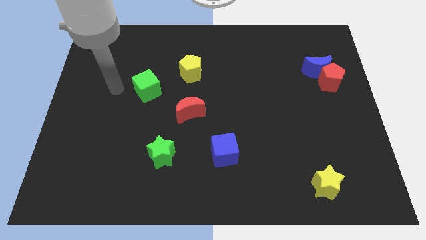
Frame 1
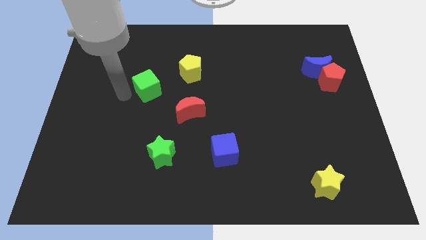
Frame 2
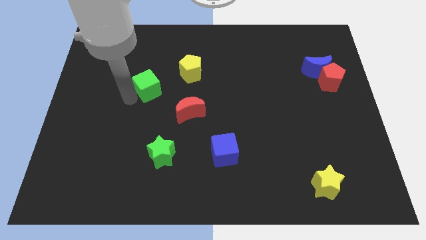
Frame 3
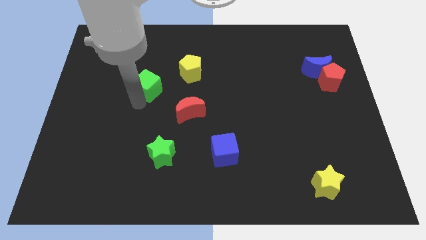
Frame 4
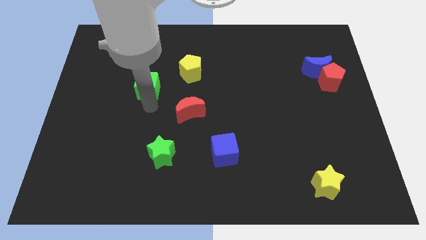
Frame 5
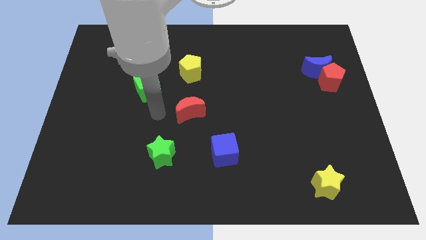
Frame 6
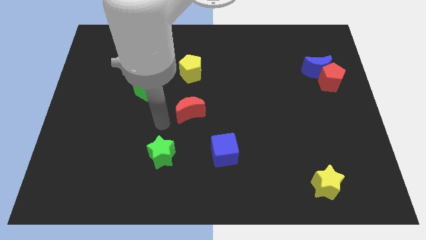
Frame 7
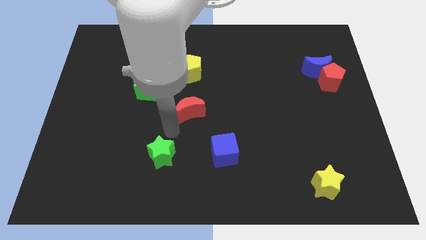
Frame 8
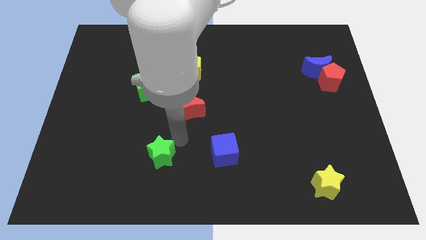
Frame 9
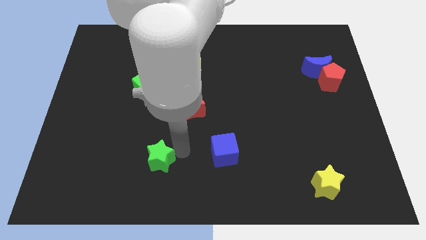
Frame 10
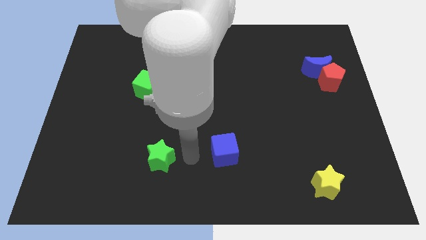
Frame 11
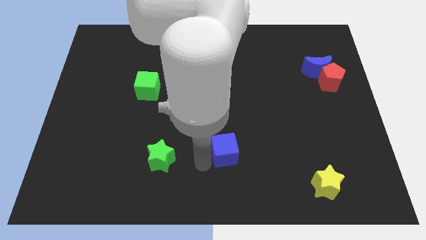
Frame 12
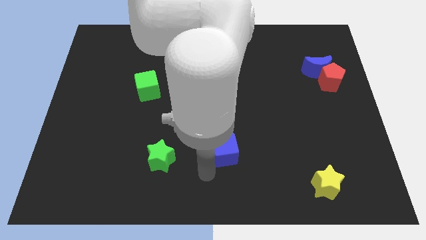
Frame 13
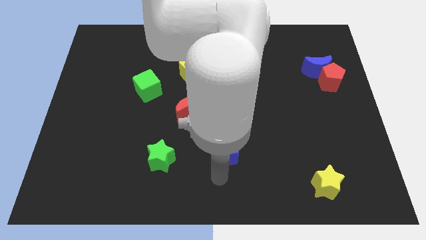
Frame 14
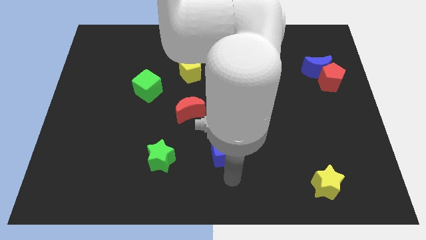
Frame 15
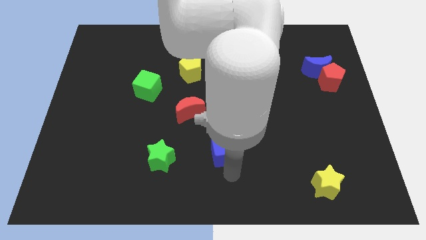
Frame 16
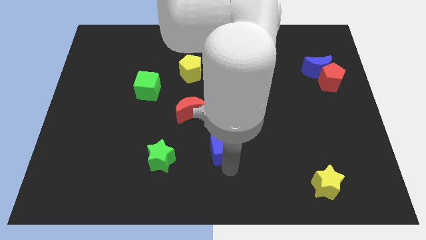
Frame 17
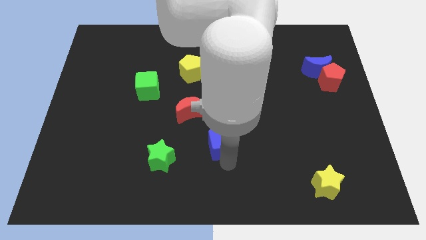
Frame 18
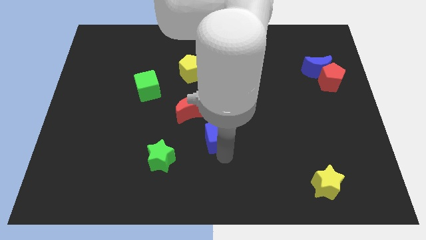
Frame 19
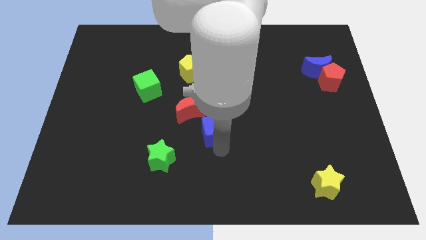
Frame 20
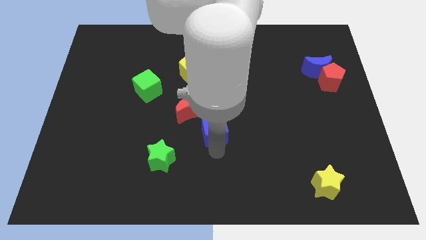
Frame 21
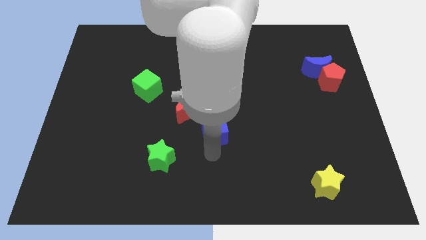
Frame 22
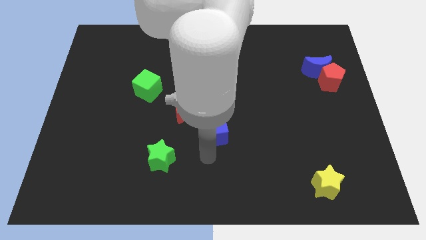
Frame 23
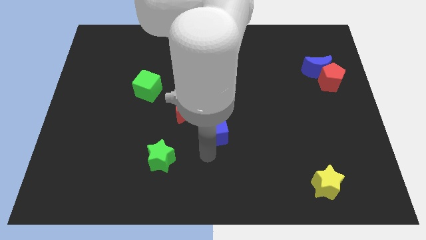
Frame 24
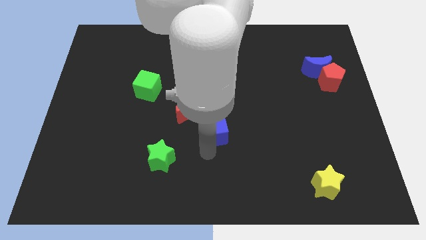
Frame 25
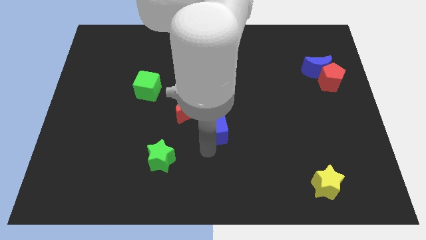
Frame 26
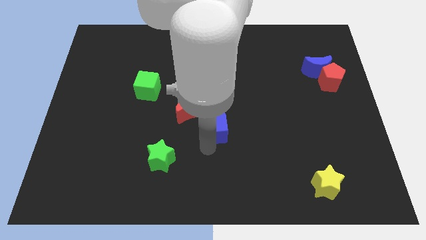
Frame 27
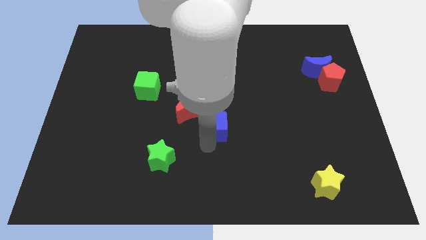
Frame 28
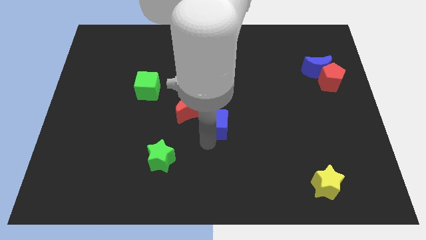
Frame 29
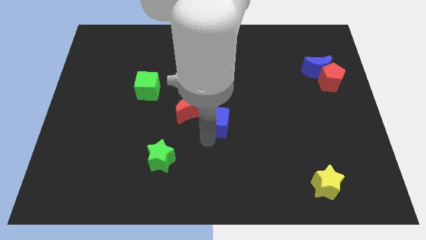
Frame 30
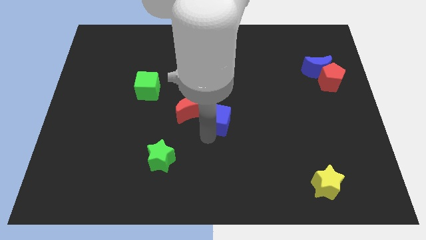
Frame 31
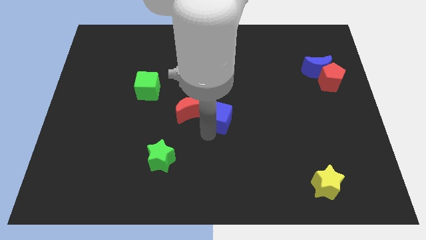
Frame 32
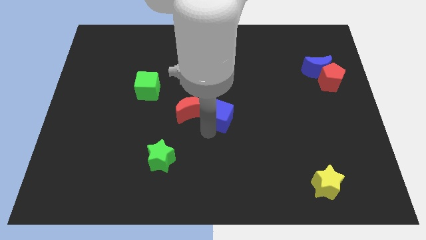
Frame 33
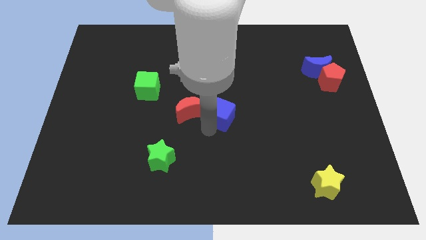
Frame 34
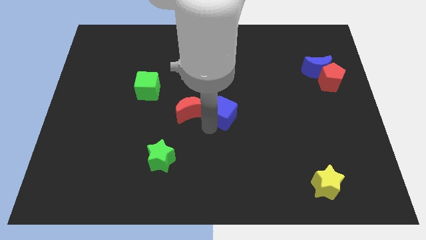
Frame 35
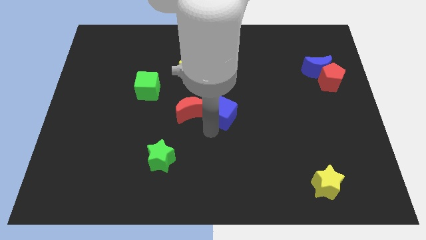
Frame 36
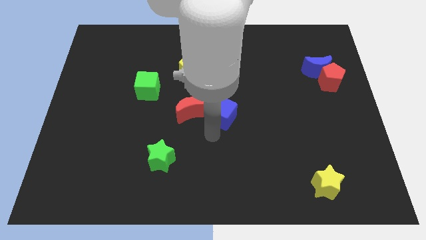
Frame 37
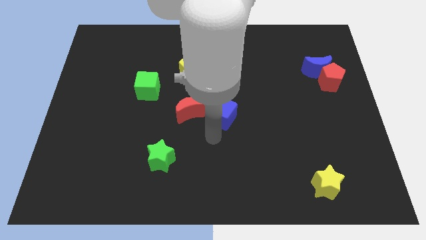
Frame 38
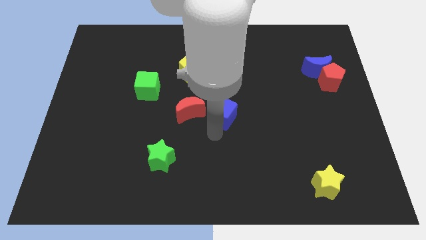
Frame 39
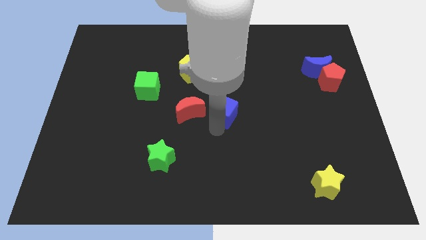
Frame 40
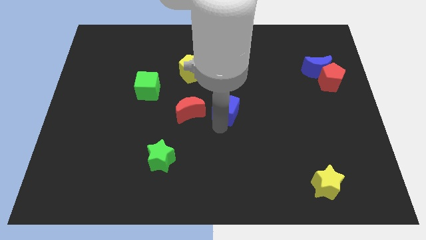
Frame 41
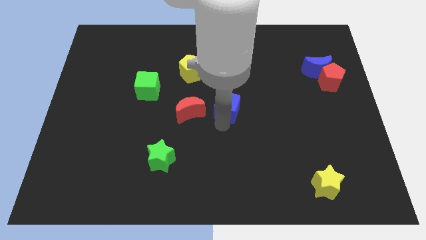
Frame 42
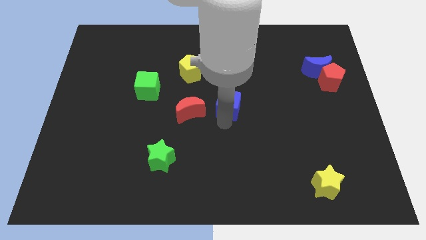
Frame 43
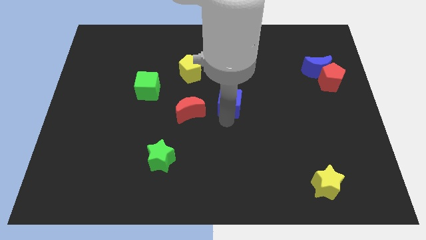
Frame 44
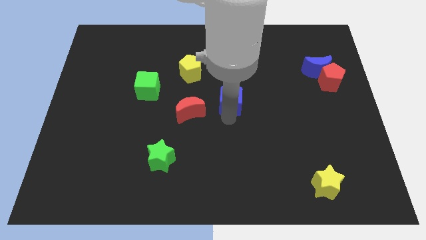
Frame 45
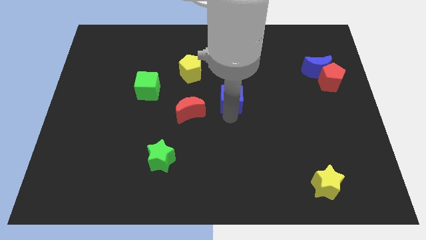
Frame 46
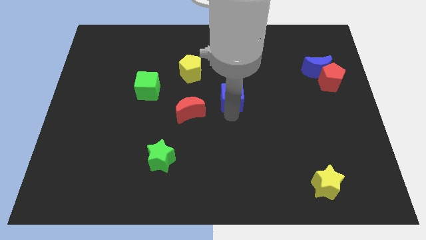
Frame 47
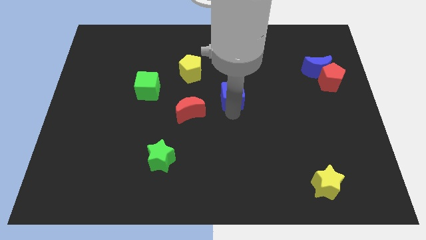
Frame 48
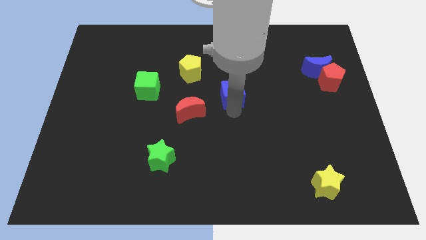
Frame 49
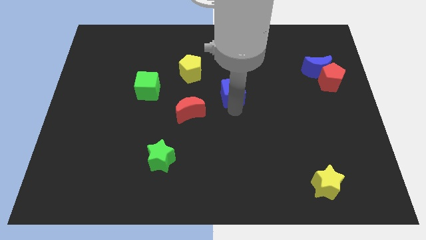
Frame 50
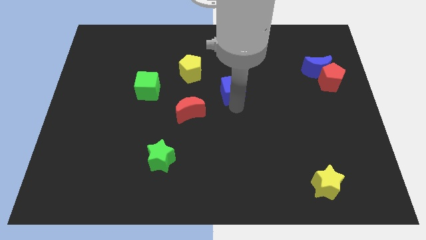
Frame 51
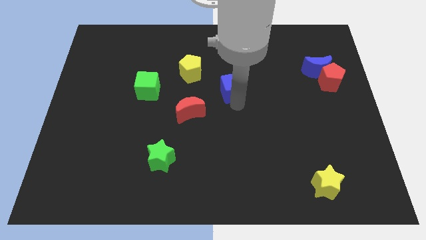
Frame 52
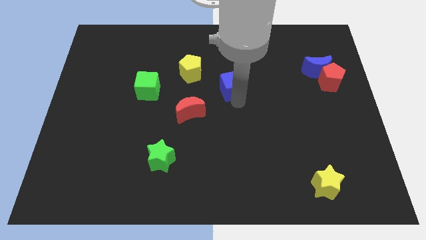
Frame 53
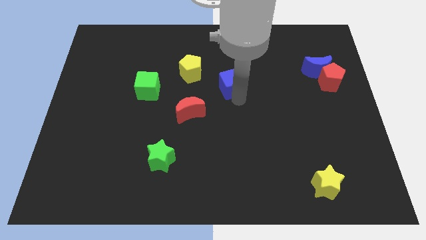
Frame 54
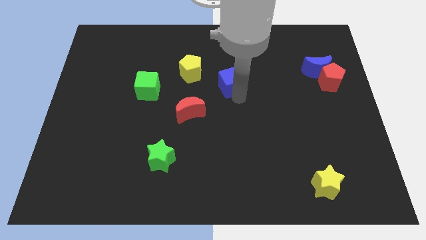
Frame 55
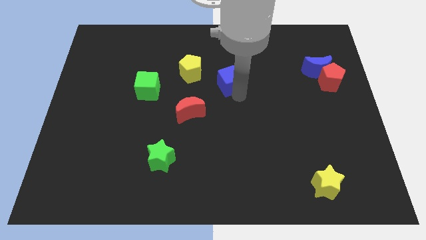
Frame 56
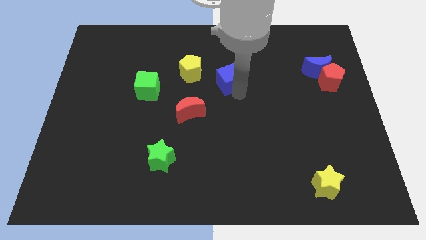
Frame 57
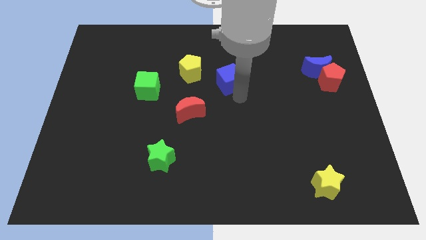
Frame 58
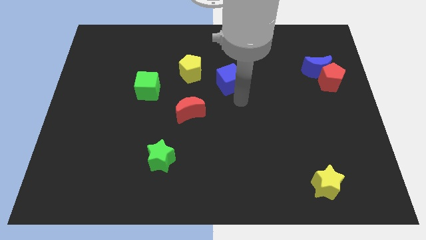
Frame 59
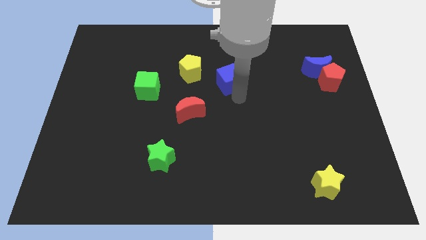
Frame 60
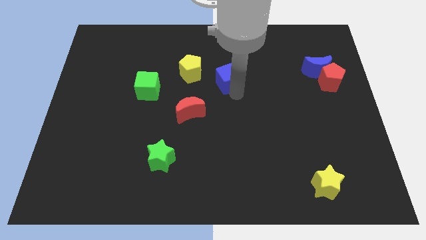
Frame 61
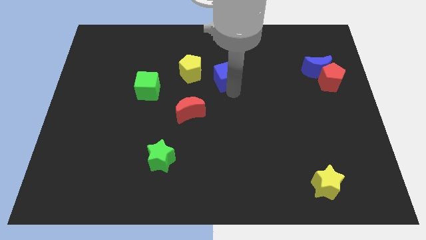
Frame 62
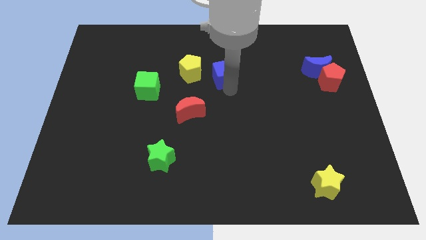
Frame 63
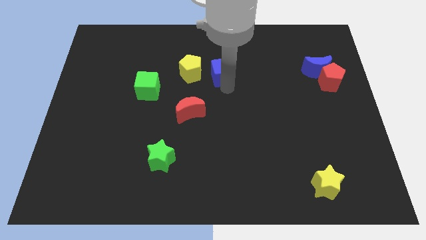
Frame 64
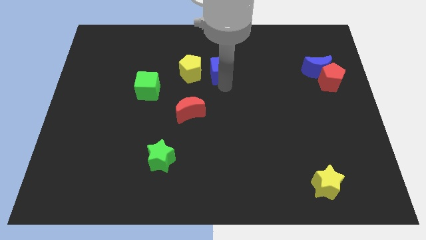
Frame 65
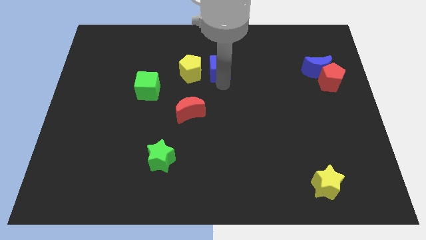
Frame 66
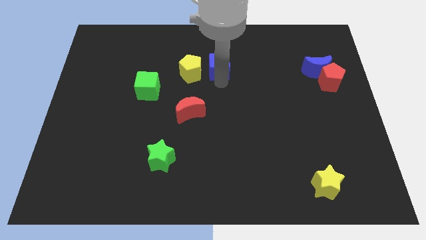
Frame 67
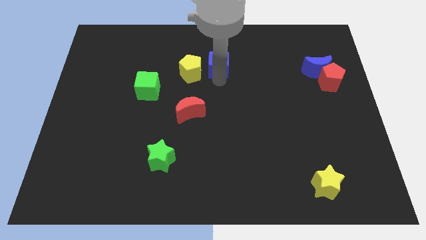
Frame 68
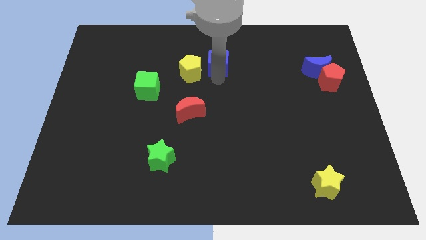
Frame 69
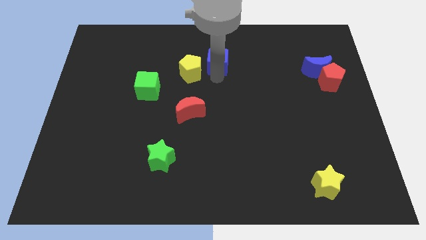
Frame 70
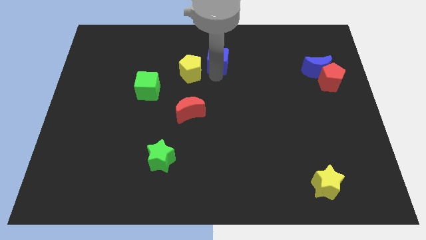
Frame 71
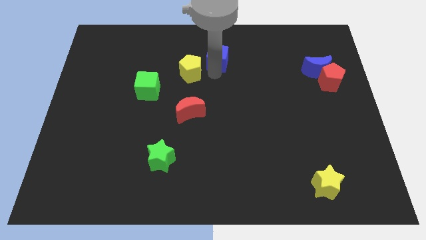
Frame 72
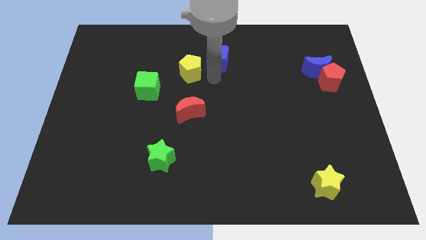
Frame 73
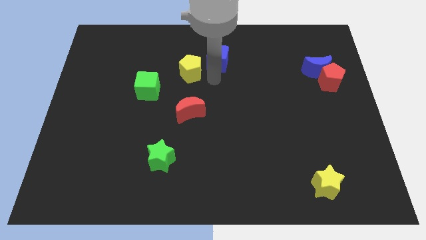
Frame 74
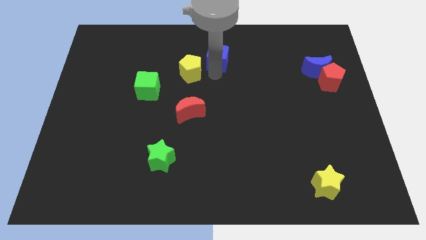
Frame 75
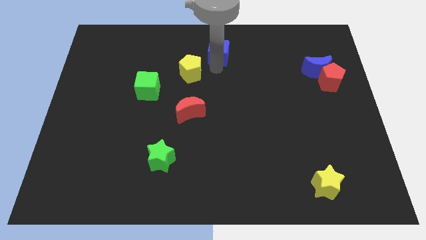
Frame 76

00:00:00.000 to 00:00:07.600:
move the blue cube to the towards your base
